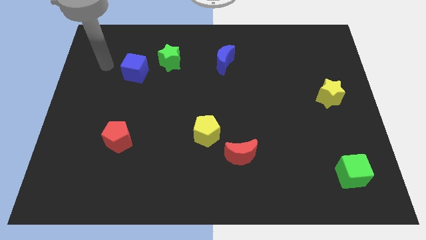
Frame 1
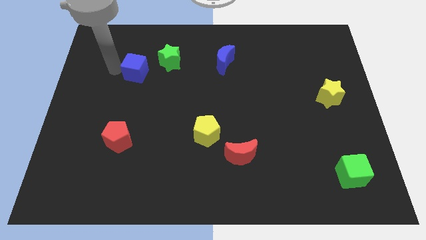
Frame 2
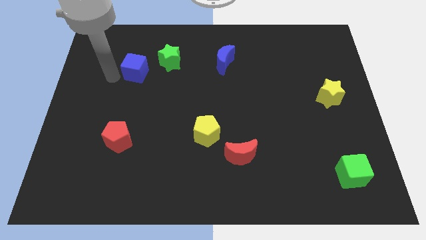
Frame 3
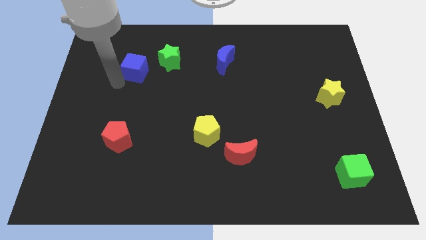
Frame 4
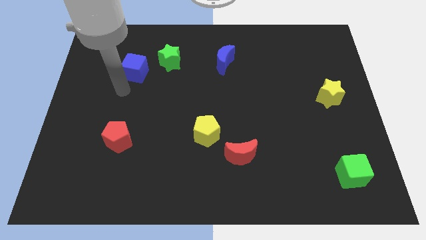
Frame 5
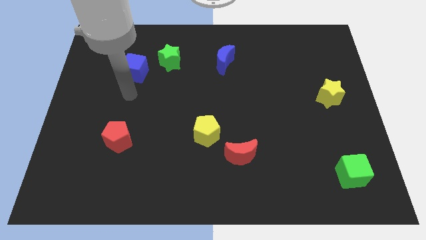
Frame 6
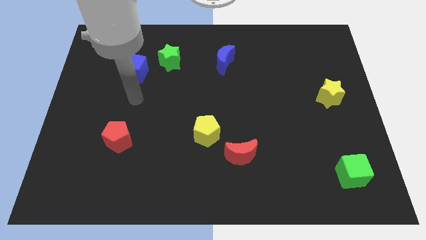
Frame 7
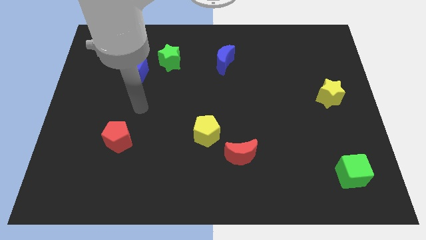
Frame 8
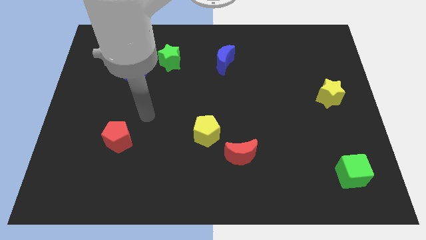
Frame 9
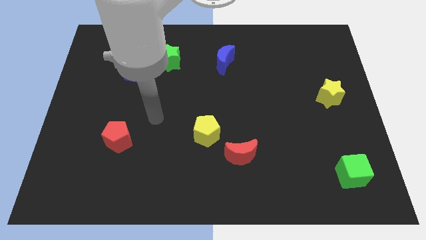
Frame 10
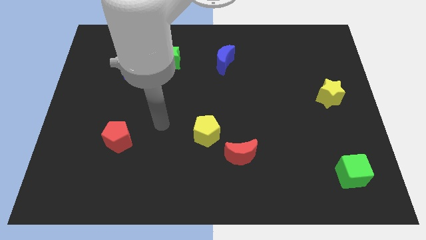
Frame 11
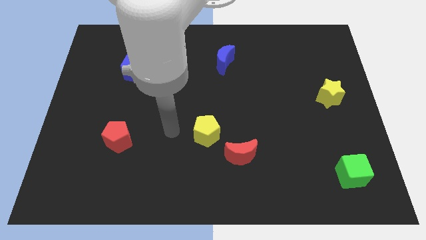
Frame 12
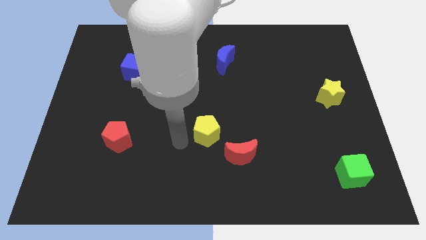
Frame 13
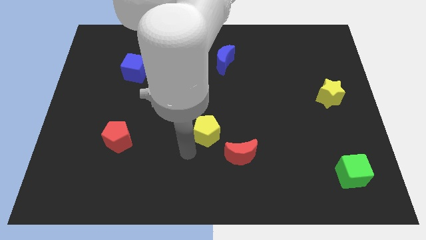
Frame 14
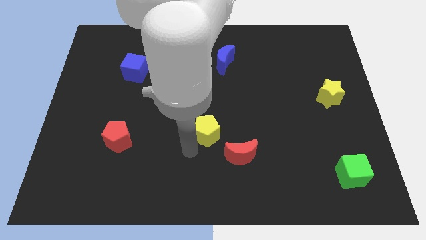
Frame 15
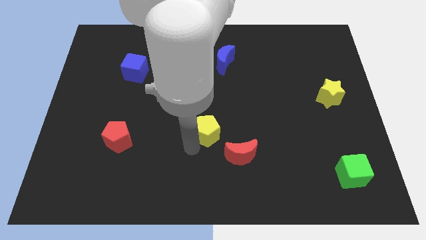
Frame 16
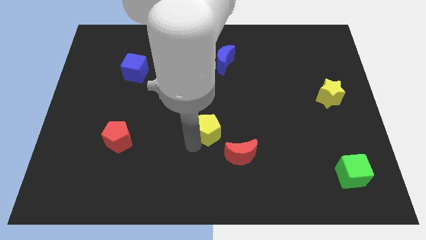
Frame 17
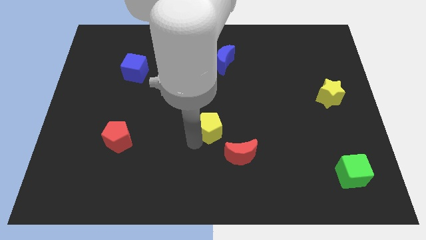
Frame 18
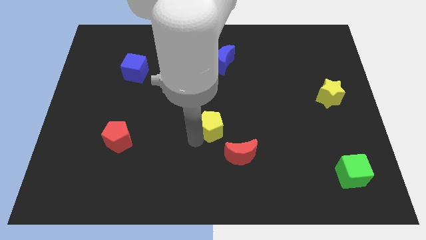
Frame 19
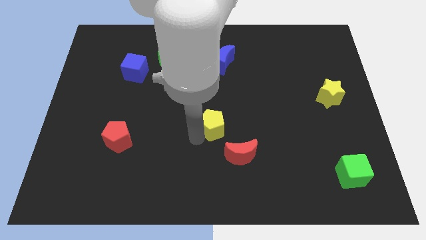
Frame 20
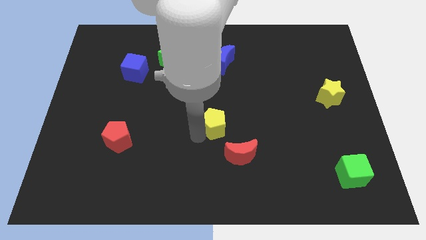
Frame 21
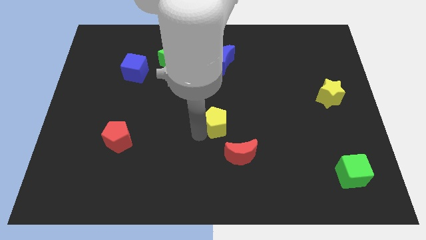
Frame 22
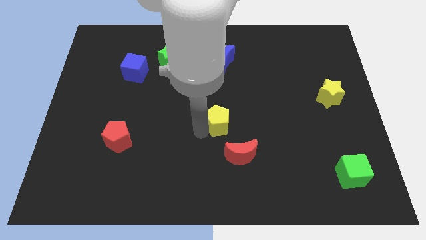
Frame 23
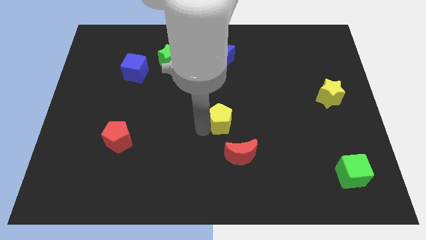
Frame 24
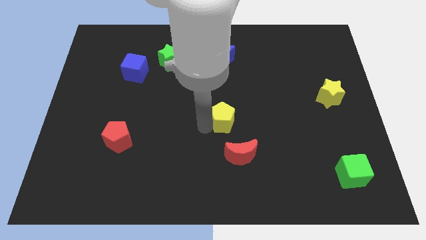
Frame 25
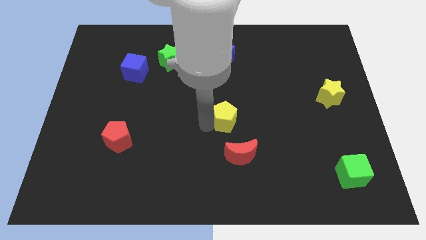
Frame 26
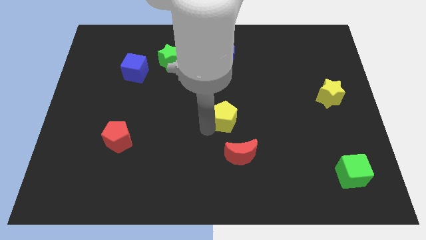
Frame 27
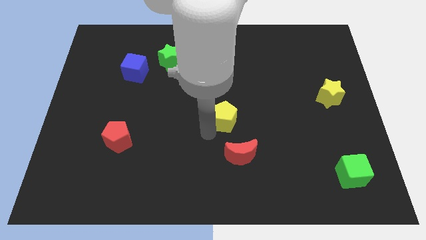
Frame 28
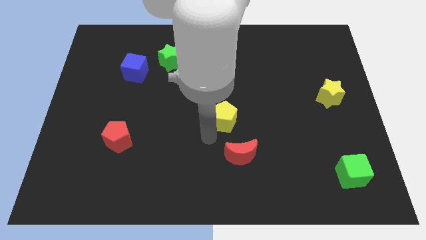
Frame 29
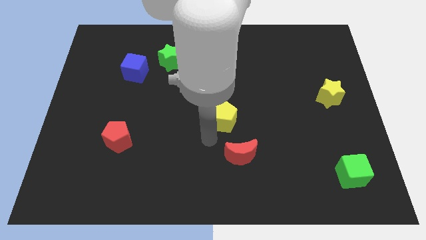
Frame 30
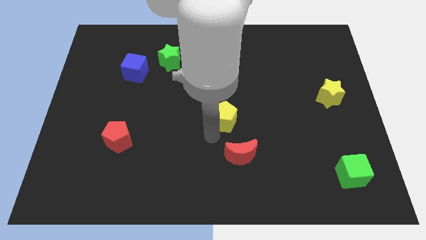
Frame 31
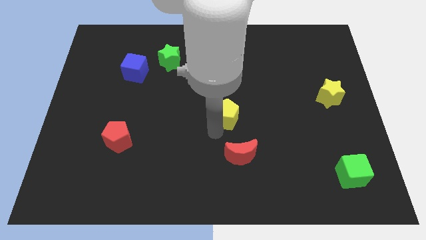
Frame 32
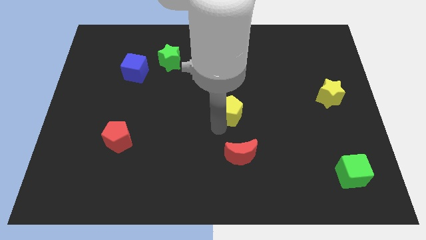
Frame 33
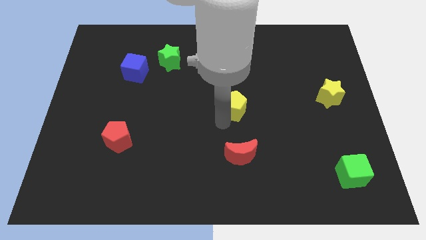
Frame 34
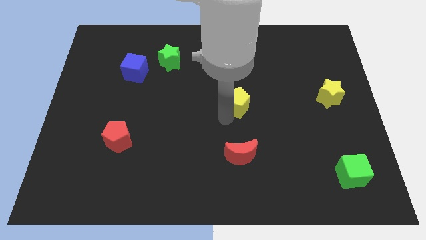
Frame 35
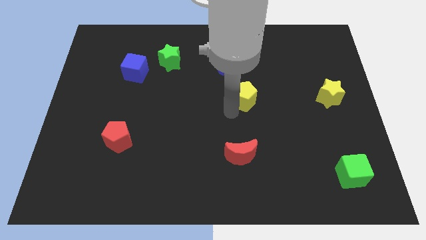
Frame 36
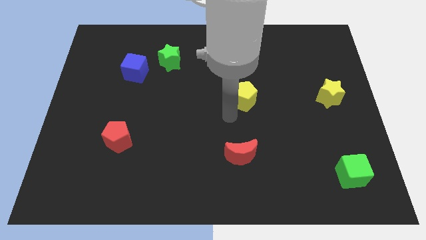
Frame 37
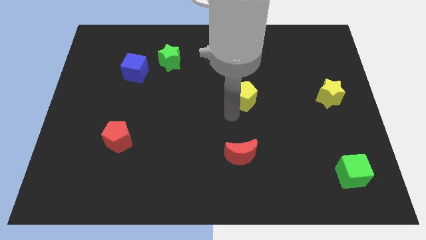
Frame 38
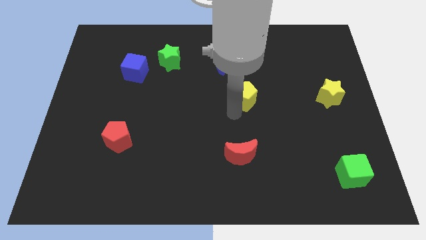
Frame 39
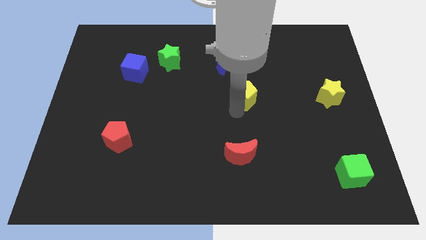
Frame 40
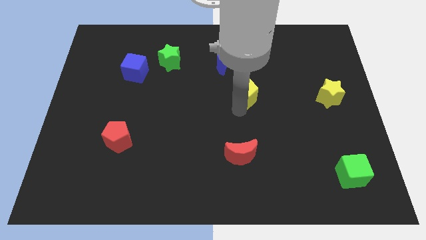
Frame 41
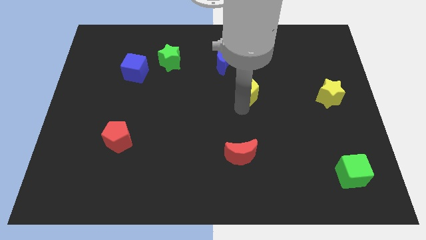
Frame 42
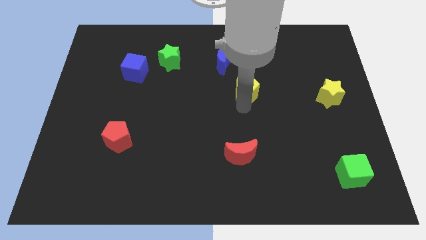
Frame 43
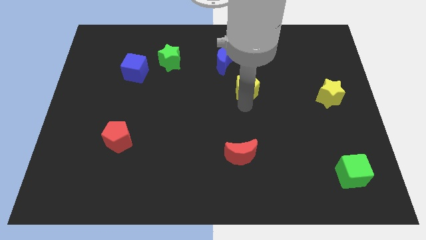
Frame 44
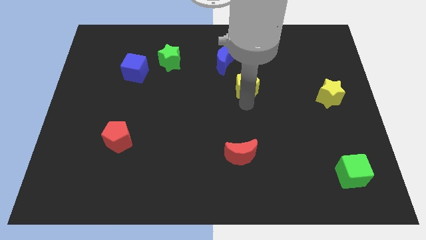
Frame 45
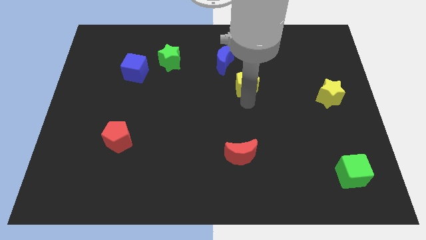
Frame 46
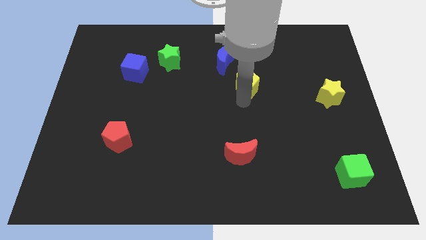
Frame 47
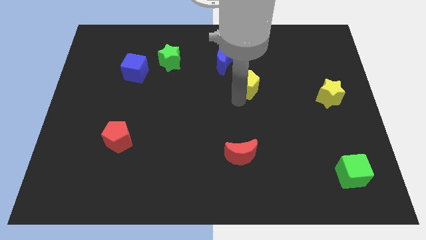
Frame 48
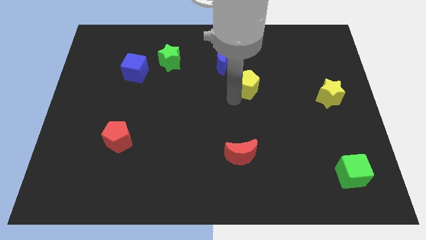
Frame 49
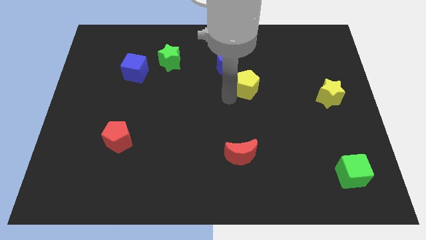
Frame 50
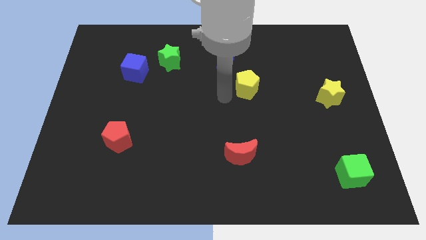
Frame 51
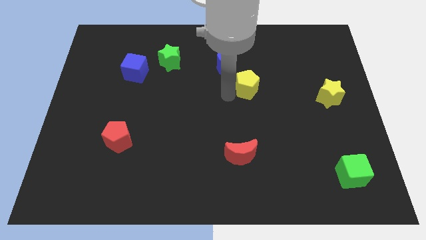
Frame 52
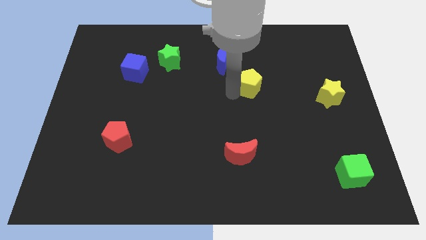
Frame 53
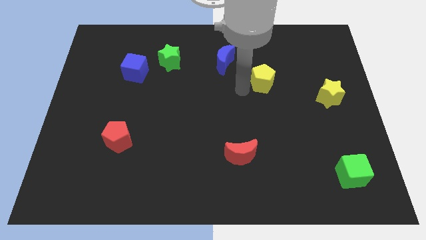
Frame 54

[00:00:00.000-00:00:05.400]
push the yellow pentagon upwards and right

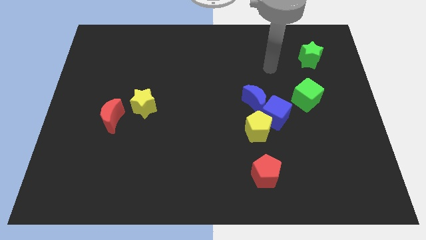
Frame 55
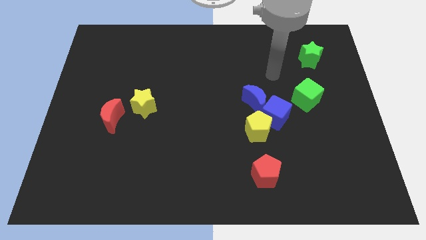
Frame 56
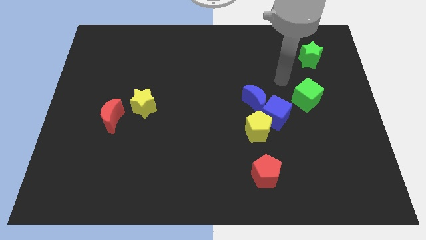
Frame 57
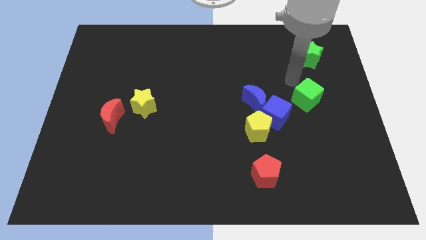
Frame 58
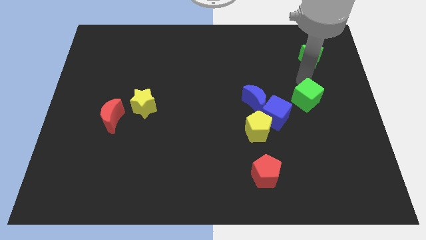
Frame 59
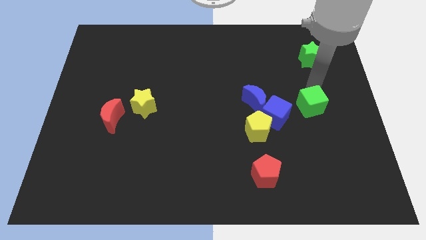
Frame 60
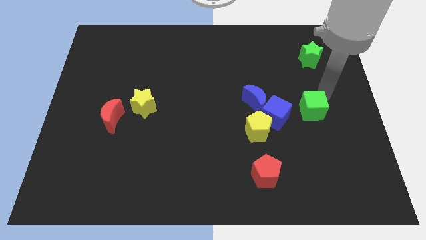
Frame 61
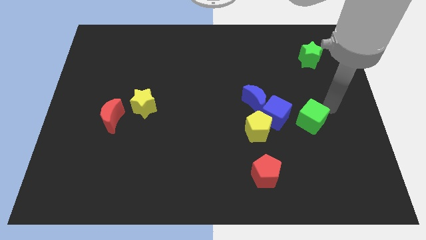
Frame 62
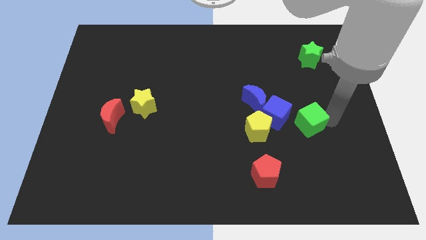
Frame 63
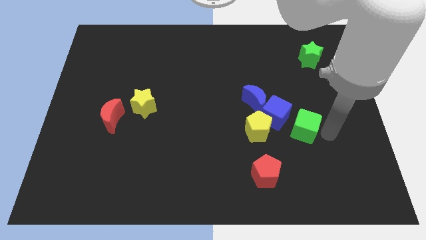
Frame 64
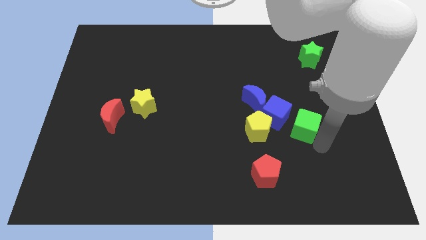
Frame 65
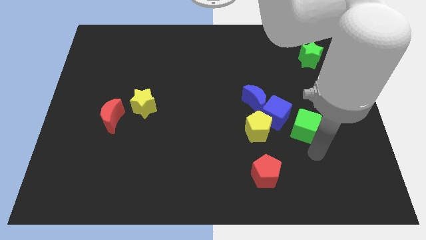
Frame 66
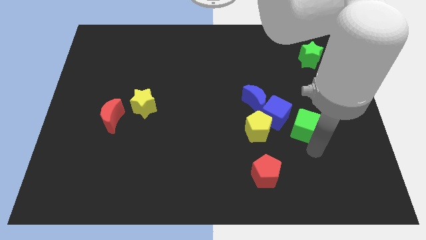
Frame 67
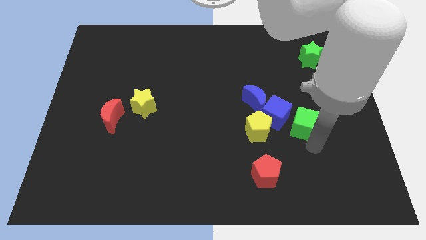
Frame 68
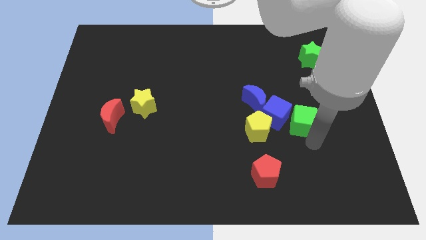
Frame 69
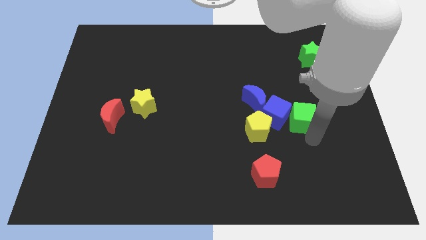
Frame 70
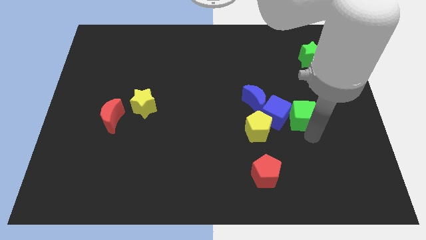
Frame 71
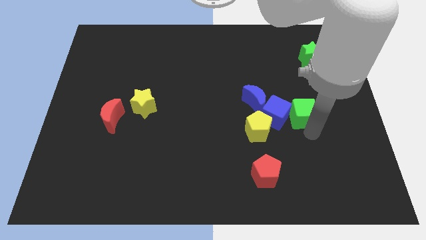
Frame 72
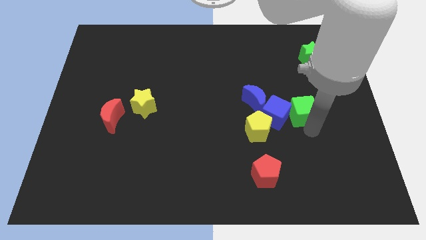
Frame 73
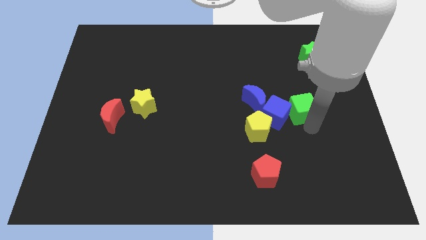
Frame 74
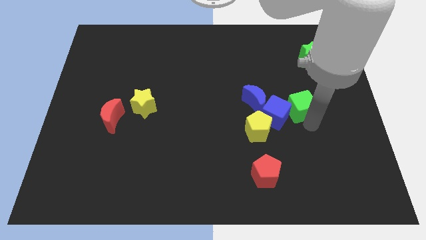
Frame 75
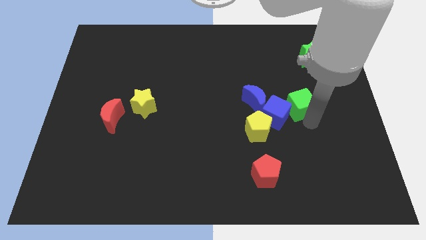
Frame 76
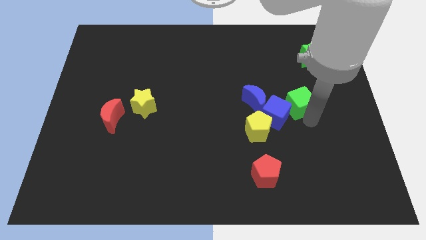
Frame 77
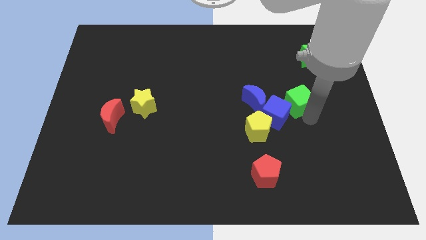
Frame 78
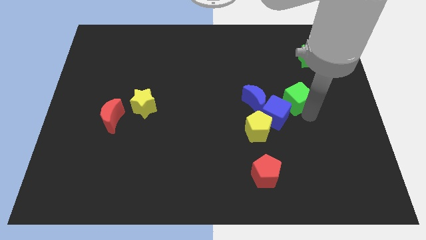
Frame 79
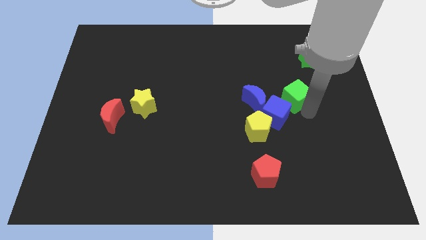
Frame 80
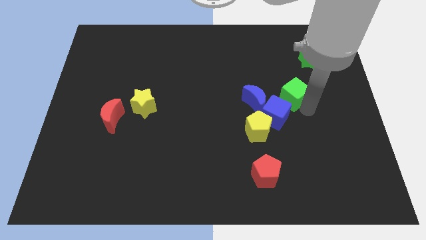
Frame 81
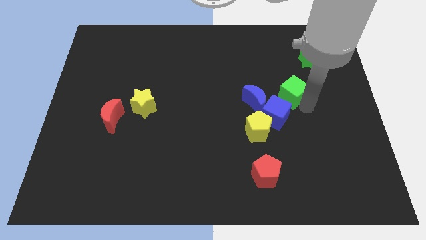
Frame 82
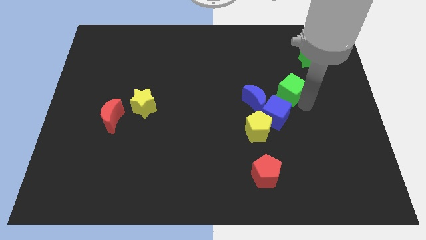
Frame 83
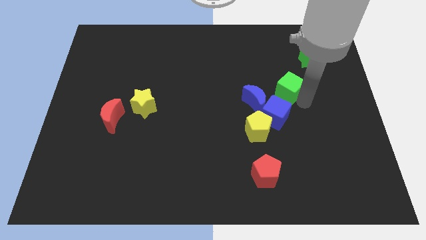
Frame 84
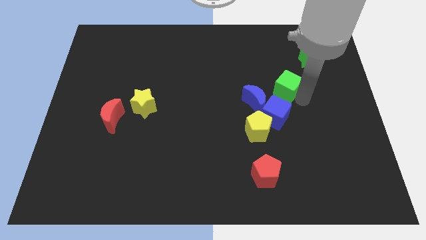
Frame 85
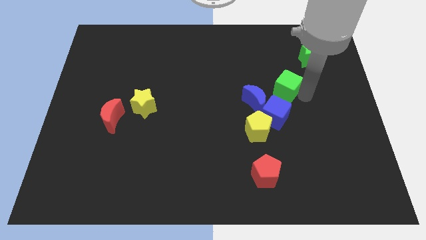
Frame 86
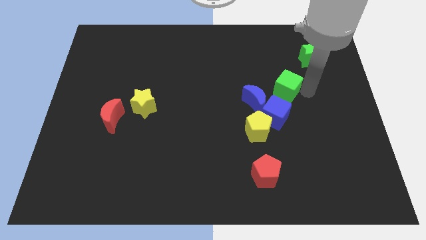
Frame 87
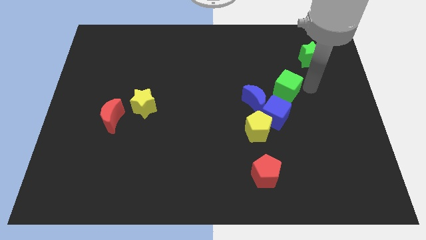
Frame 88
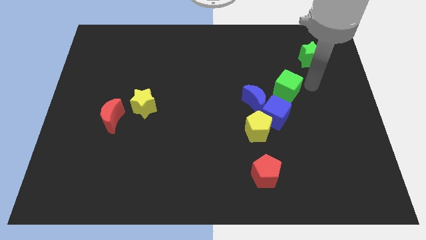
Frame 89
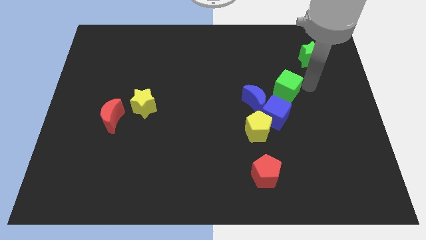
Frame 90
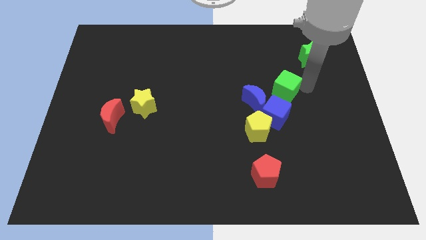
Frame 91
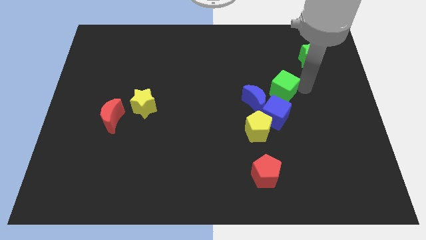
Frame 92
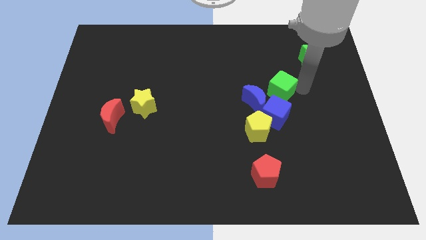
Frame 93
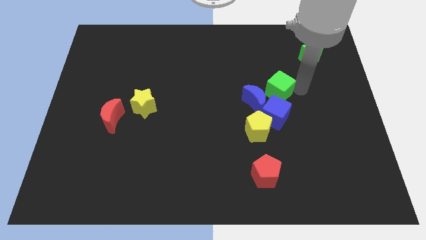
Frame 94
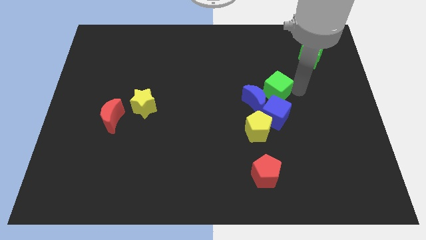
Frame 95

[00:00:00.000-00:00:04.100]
slide the green cube to the left a little bit
